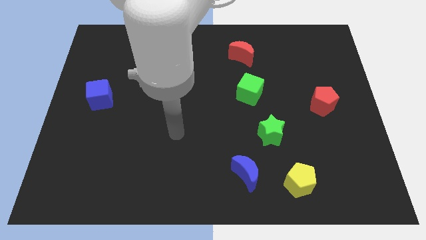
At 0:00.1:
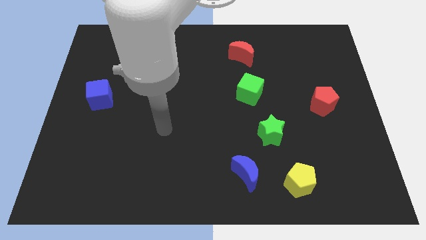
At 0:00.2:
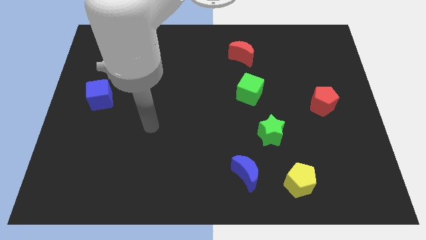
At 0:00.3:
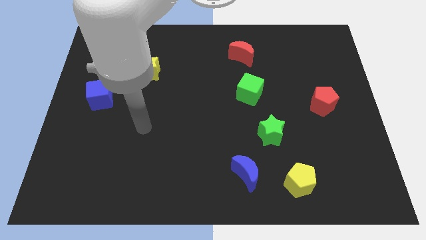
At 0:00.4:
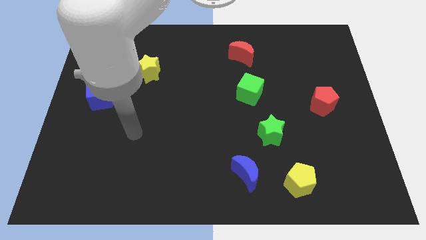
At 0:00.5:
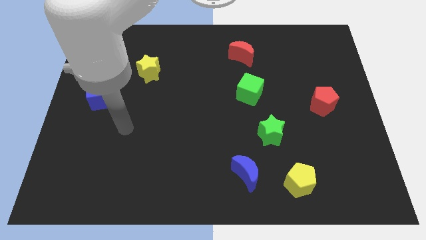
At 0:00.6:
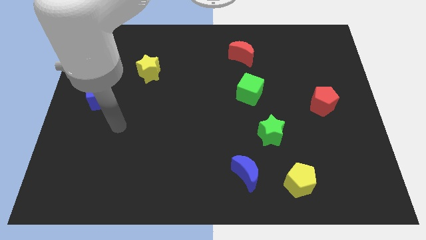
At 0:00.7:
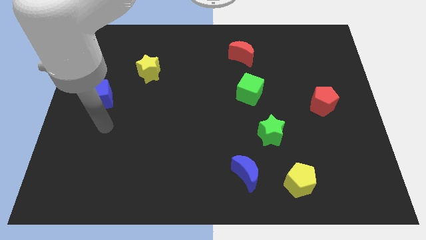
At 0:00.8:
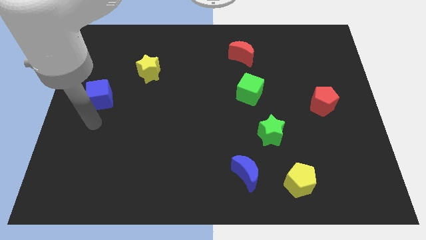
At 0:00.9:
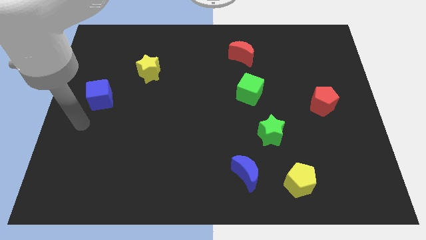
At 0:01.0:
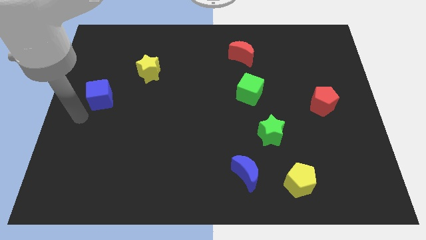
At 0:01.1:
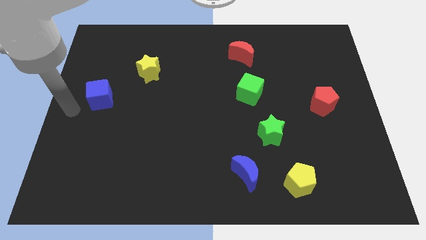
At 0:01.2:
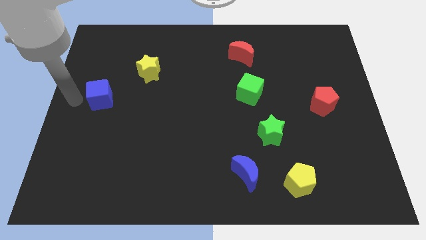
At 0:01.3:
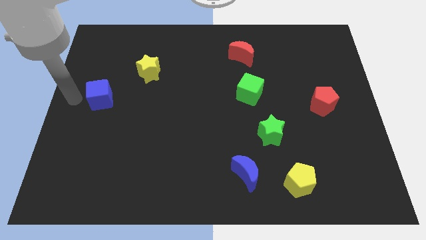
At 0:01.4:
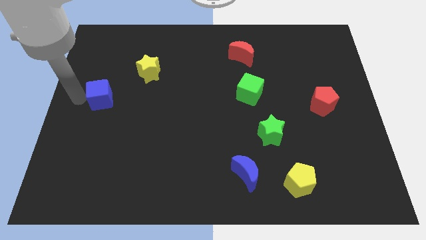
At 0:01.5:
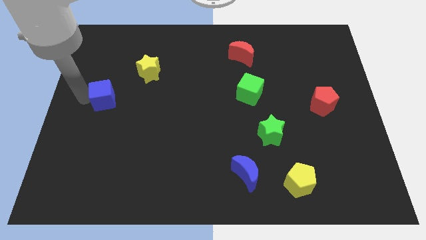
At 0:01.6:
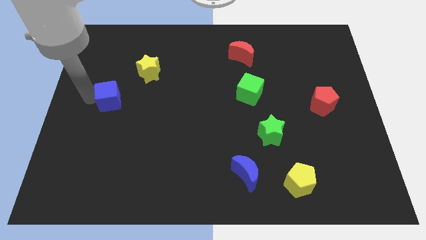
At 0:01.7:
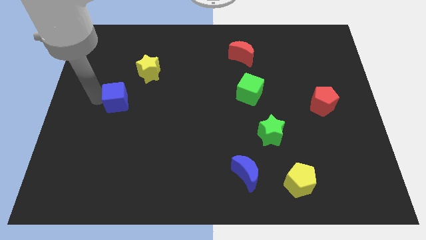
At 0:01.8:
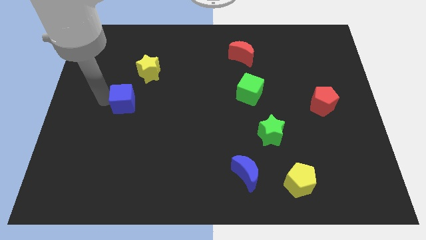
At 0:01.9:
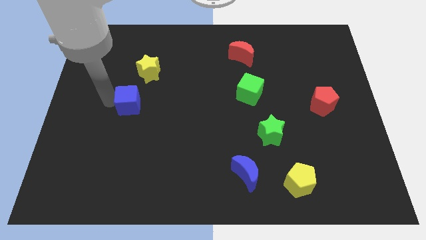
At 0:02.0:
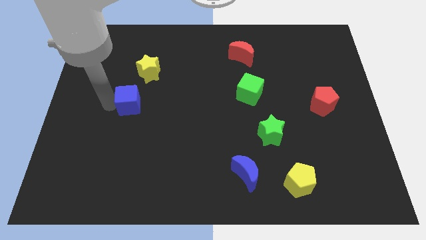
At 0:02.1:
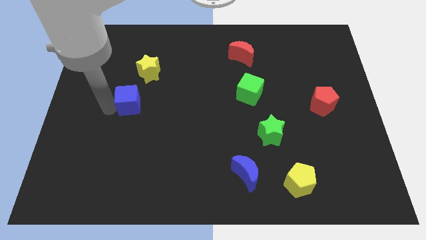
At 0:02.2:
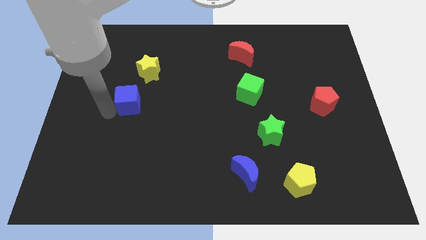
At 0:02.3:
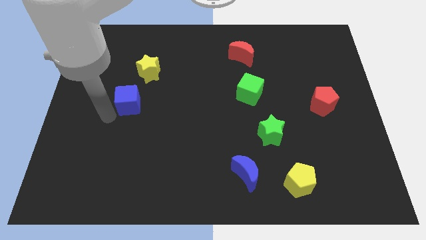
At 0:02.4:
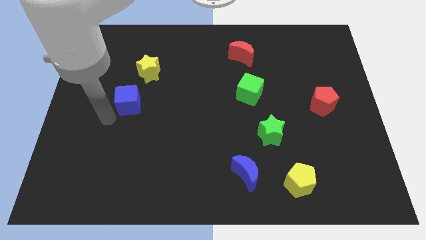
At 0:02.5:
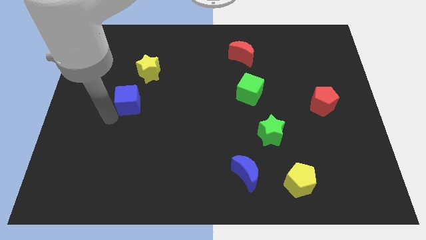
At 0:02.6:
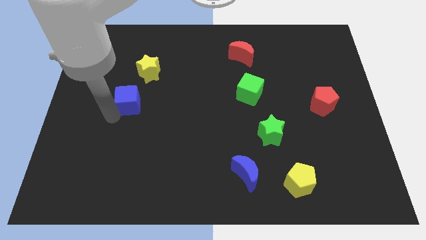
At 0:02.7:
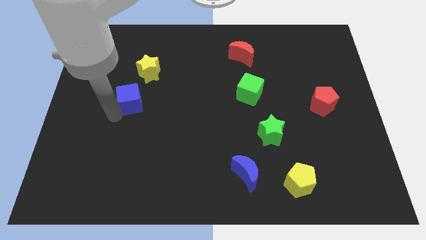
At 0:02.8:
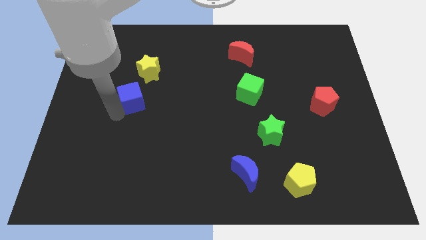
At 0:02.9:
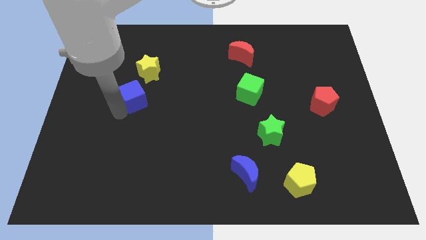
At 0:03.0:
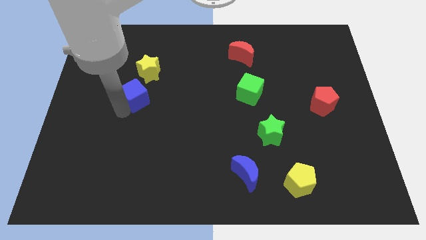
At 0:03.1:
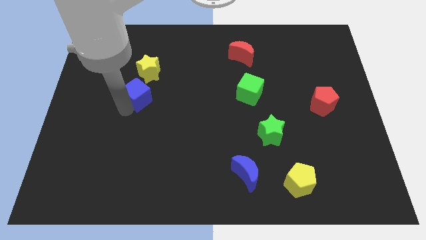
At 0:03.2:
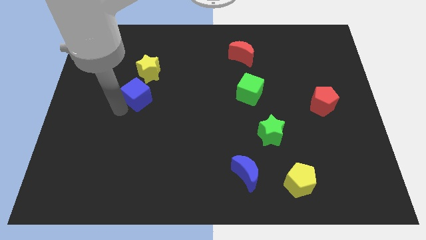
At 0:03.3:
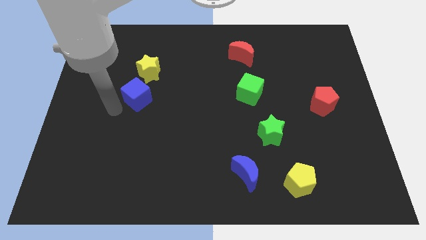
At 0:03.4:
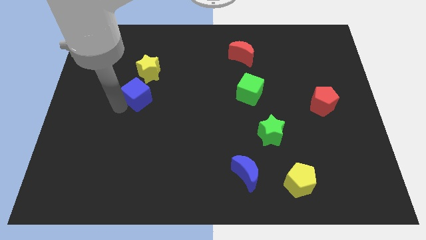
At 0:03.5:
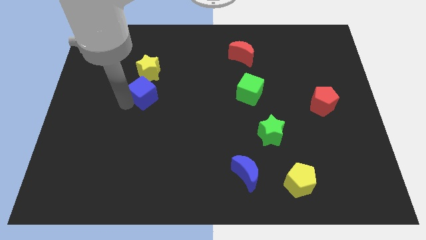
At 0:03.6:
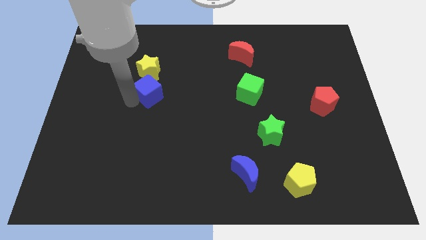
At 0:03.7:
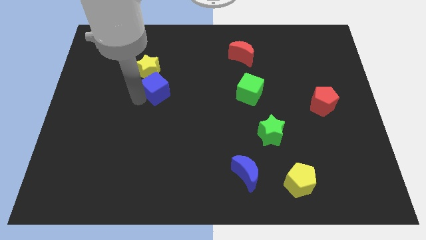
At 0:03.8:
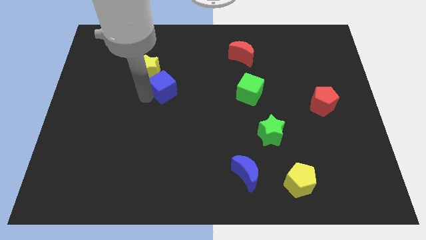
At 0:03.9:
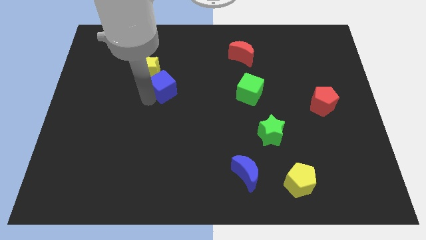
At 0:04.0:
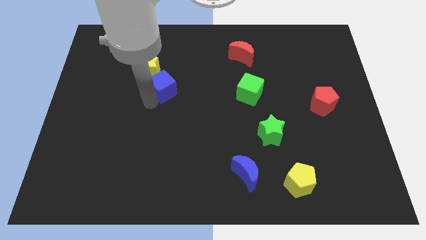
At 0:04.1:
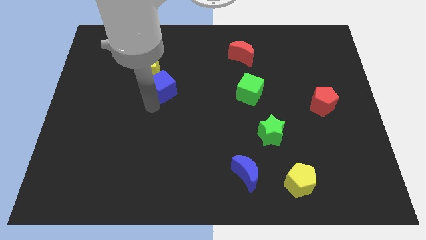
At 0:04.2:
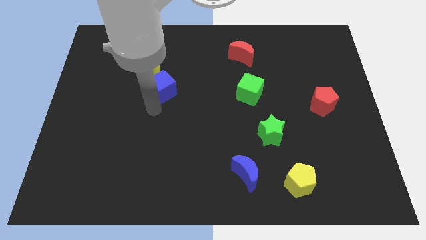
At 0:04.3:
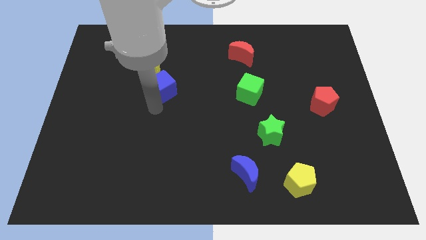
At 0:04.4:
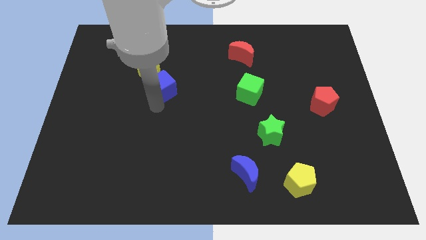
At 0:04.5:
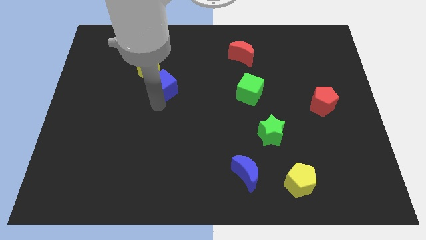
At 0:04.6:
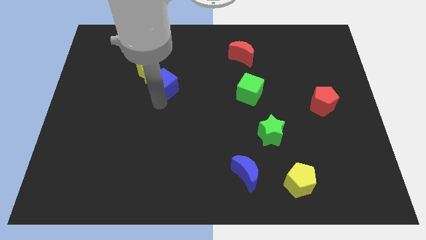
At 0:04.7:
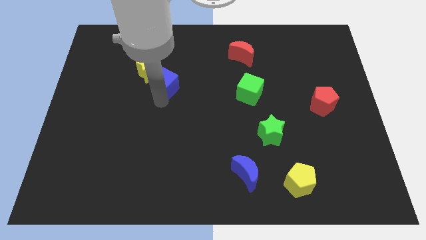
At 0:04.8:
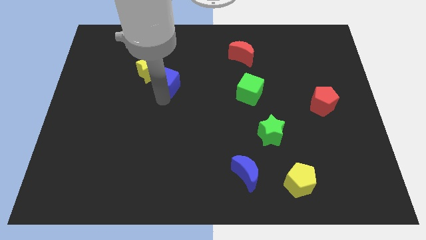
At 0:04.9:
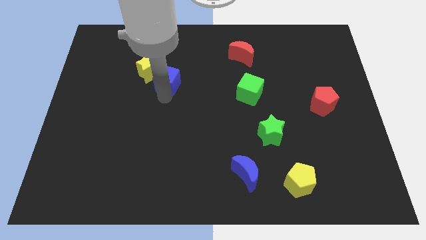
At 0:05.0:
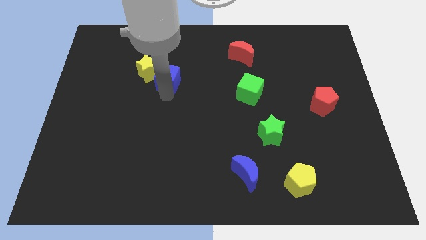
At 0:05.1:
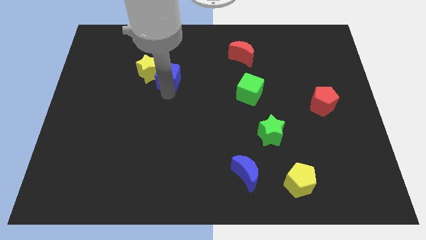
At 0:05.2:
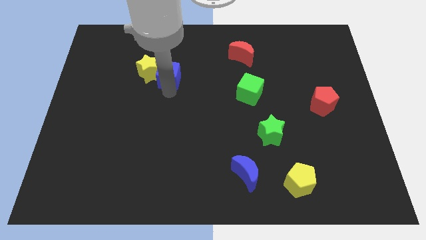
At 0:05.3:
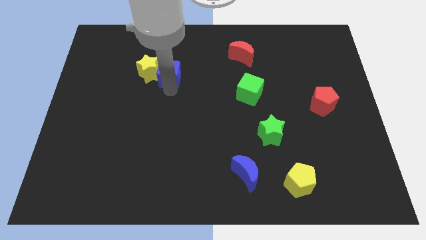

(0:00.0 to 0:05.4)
push the blue cube diagonally up and to the right of the yellow star
